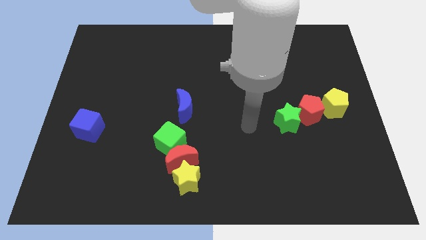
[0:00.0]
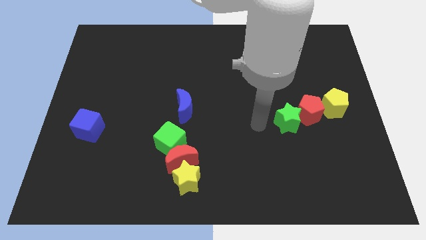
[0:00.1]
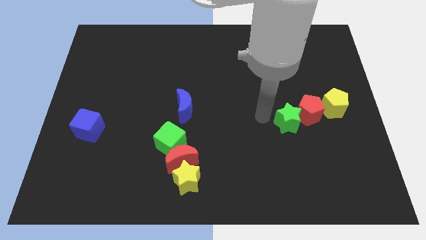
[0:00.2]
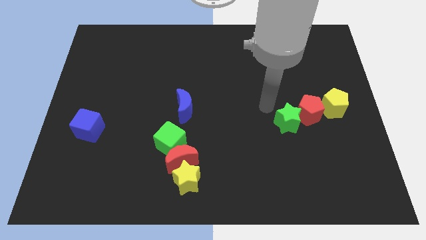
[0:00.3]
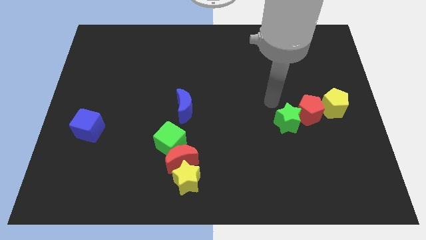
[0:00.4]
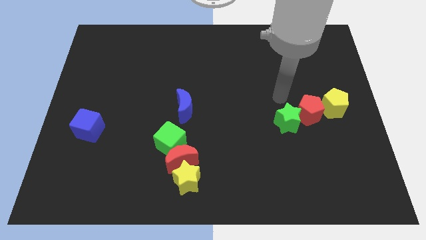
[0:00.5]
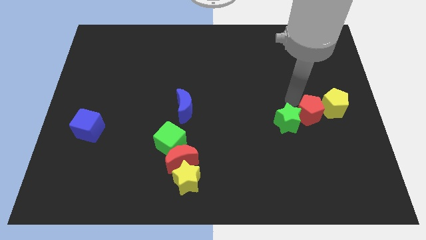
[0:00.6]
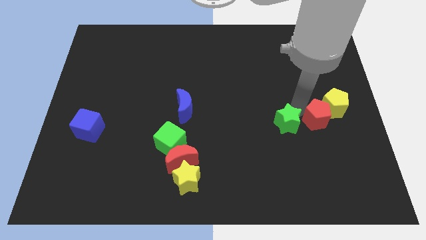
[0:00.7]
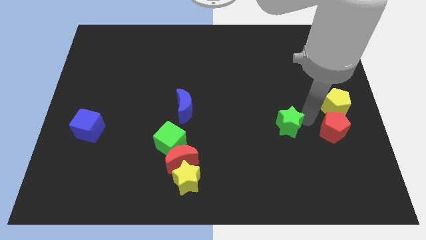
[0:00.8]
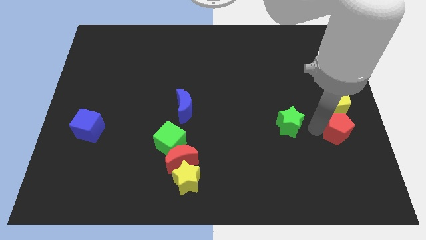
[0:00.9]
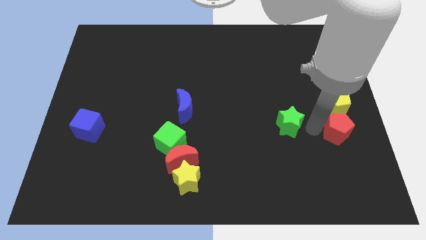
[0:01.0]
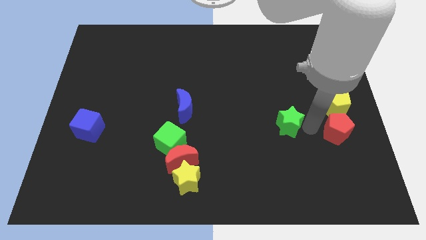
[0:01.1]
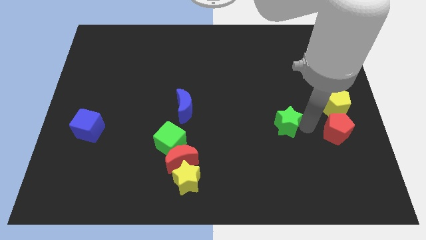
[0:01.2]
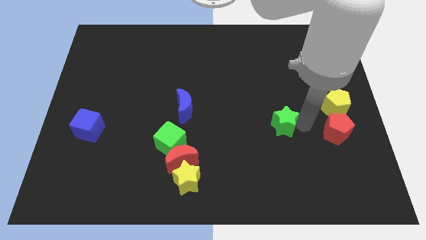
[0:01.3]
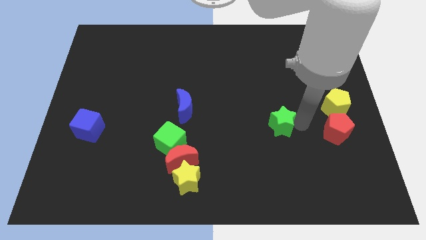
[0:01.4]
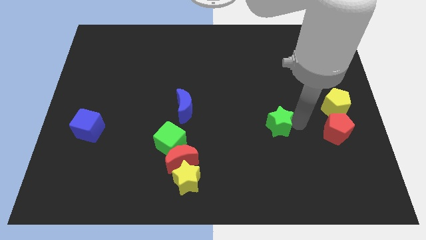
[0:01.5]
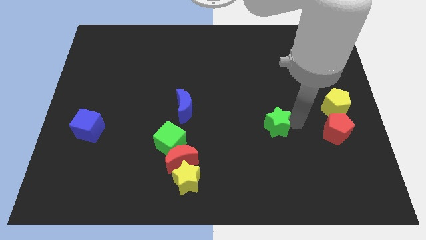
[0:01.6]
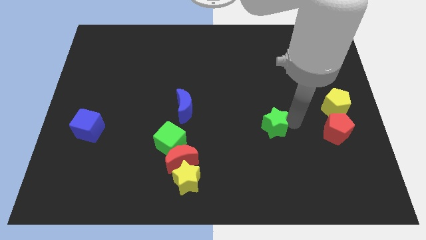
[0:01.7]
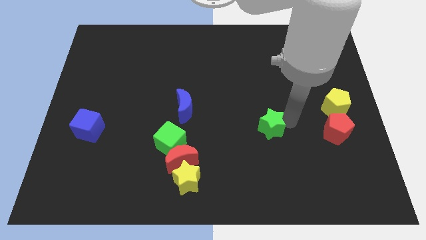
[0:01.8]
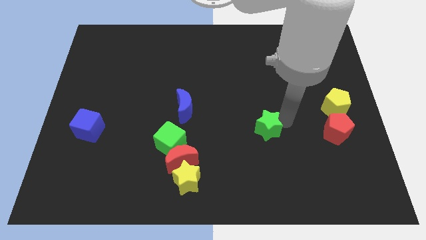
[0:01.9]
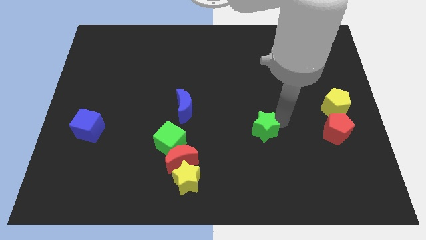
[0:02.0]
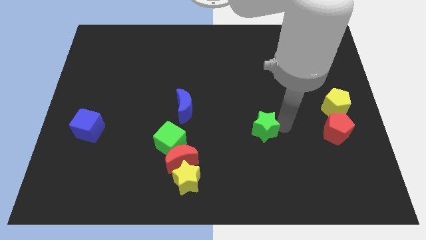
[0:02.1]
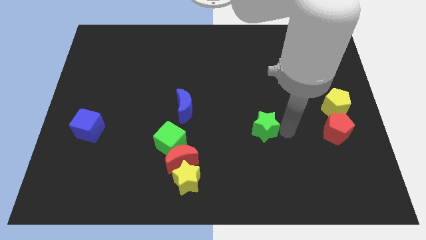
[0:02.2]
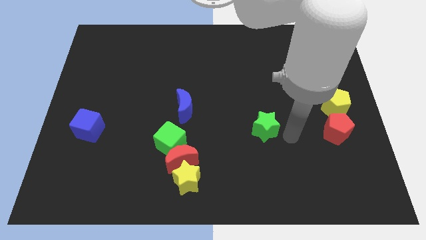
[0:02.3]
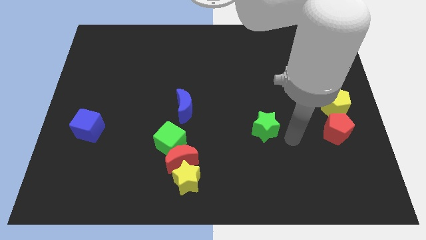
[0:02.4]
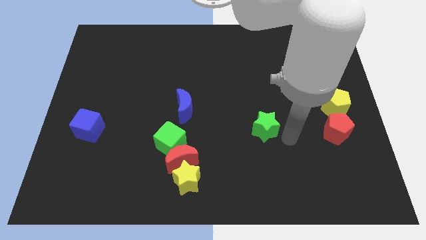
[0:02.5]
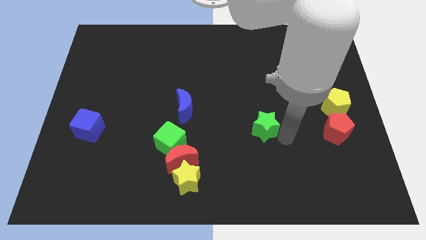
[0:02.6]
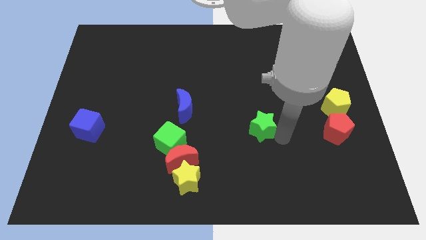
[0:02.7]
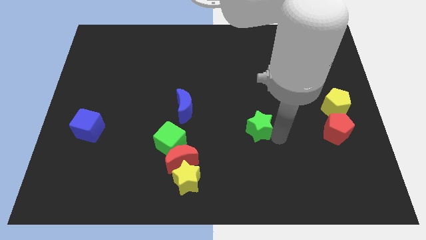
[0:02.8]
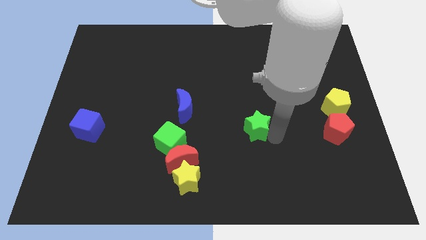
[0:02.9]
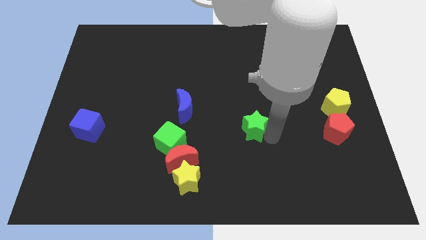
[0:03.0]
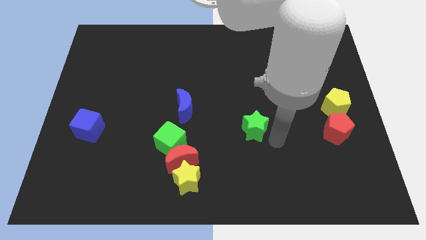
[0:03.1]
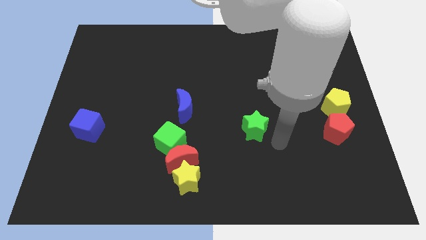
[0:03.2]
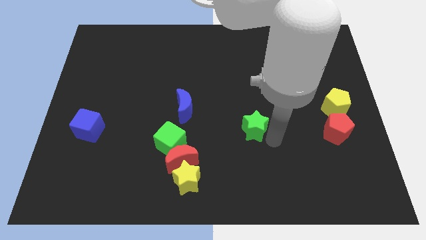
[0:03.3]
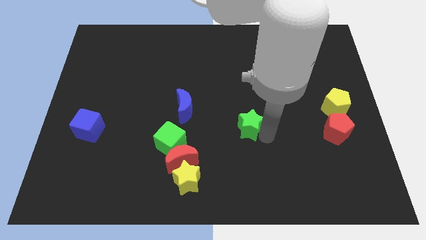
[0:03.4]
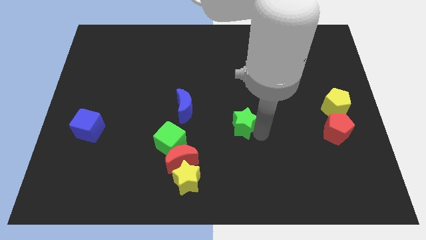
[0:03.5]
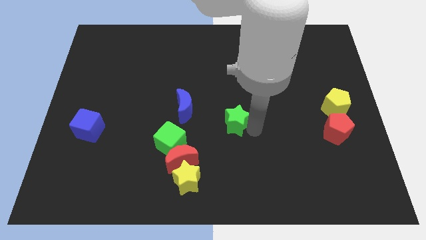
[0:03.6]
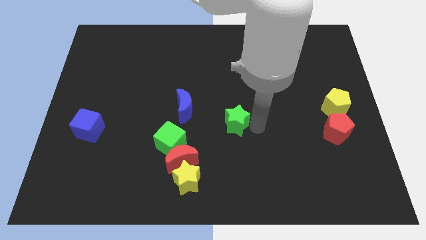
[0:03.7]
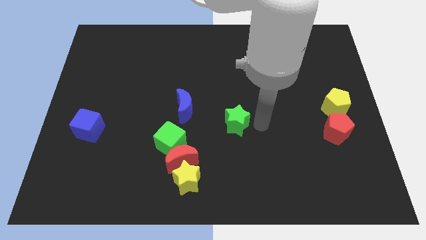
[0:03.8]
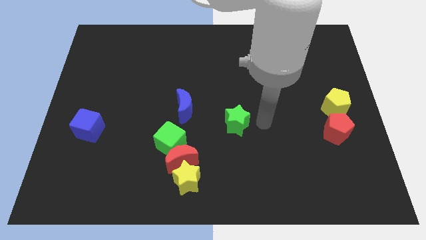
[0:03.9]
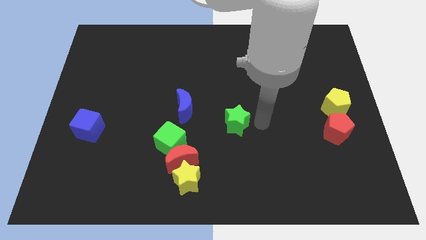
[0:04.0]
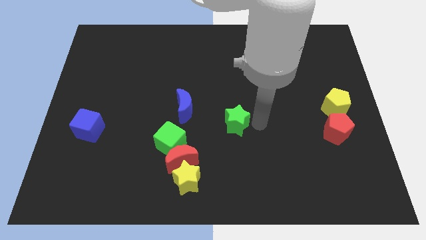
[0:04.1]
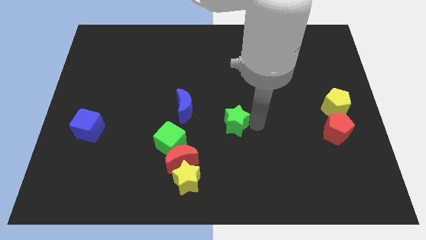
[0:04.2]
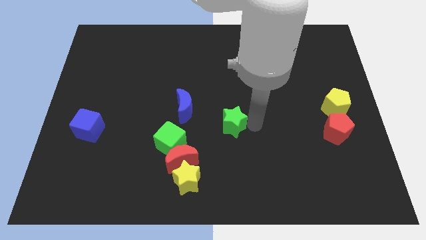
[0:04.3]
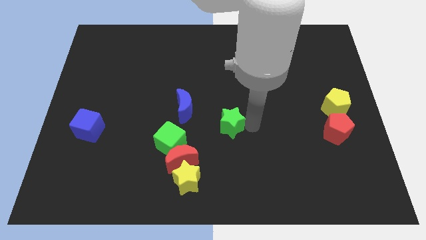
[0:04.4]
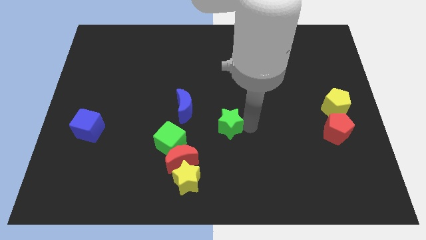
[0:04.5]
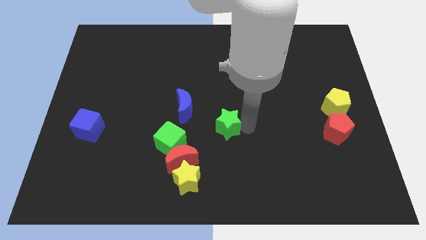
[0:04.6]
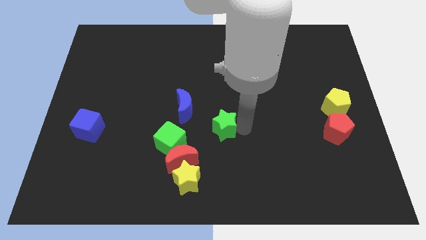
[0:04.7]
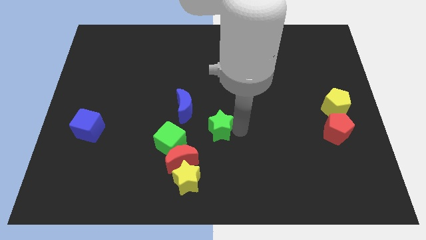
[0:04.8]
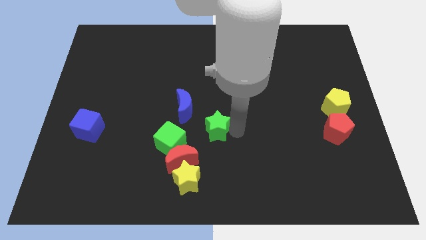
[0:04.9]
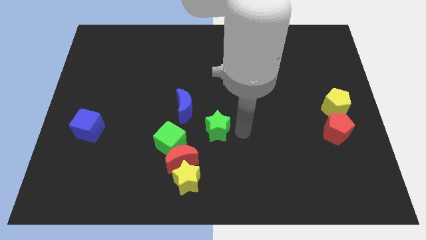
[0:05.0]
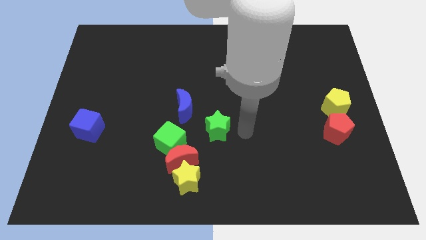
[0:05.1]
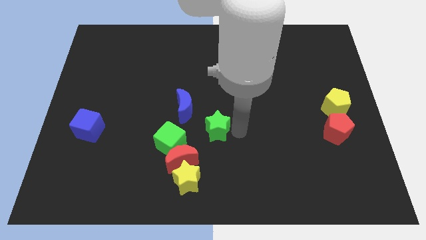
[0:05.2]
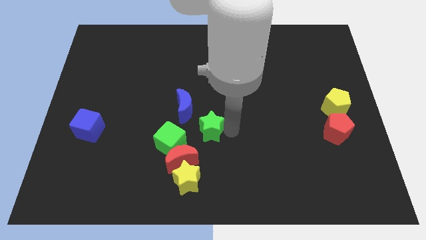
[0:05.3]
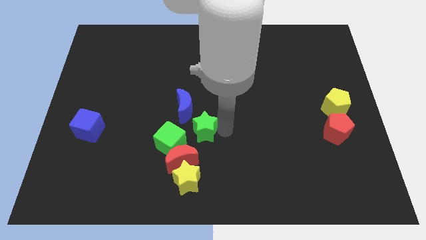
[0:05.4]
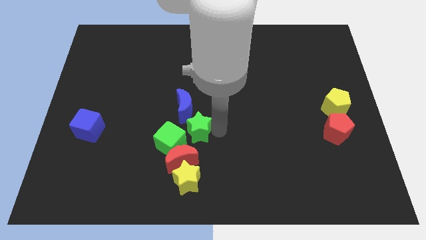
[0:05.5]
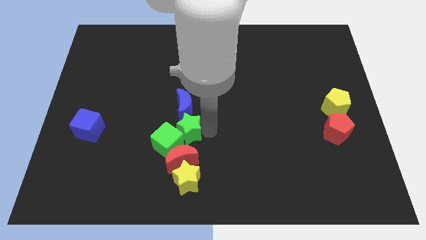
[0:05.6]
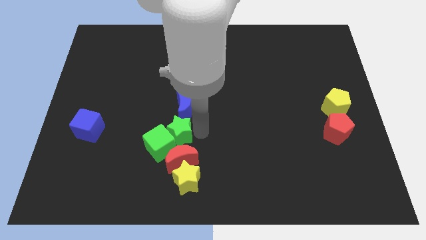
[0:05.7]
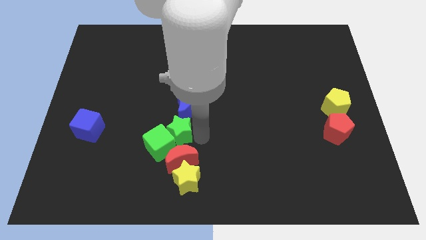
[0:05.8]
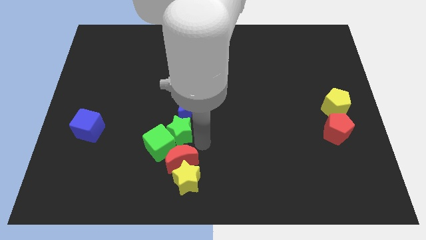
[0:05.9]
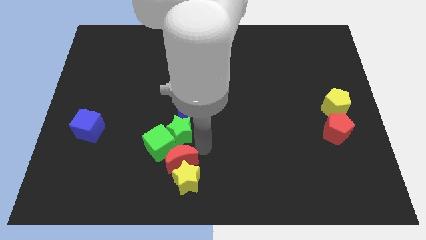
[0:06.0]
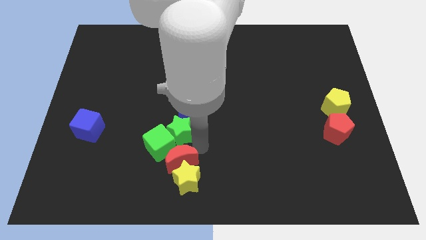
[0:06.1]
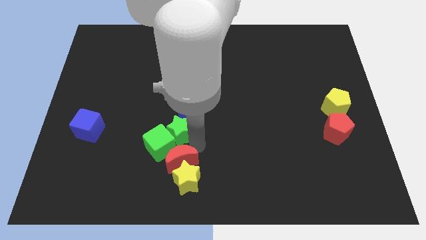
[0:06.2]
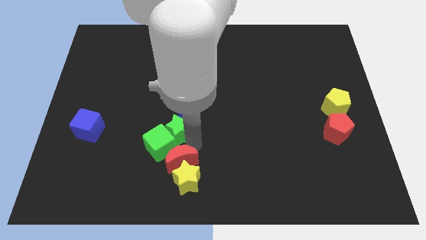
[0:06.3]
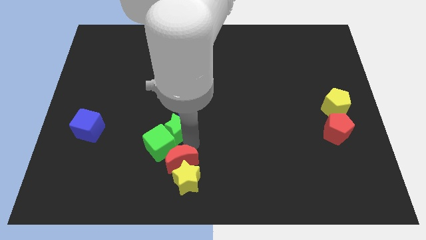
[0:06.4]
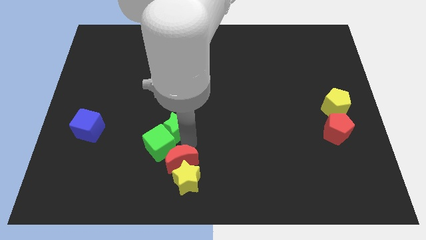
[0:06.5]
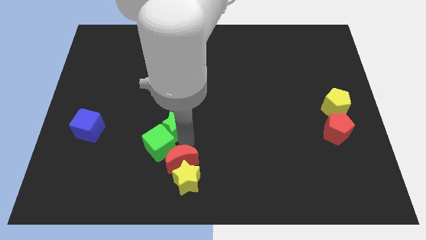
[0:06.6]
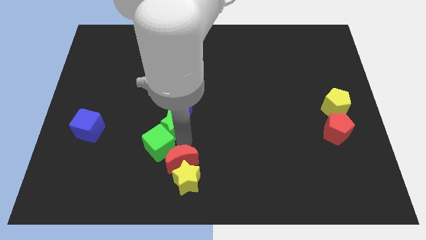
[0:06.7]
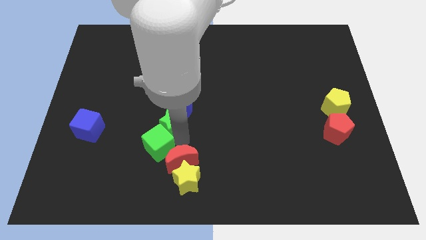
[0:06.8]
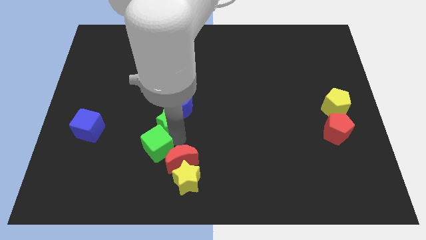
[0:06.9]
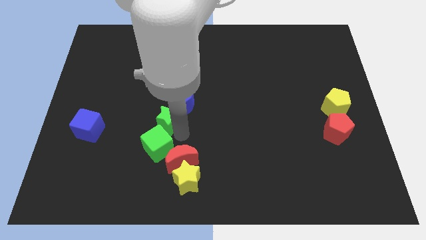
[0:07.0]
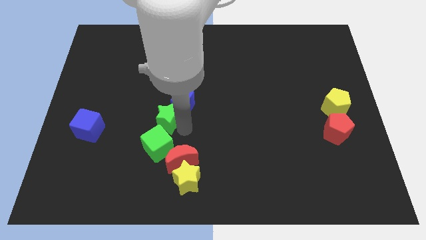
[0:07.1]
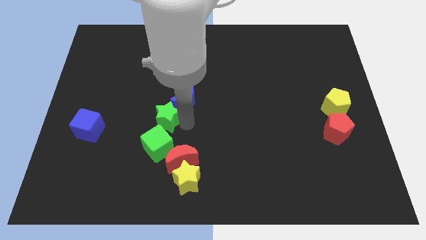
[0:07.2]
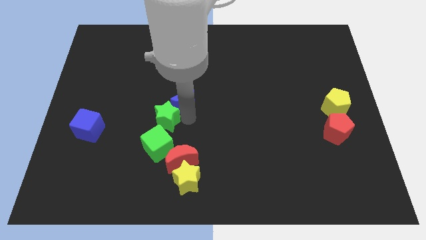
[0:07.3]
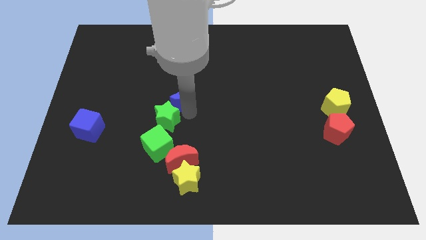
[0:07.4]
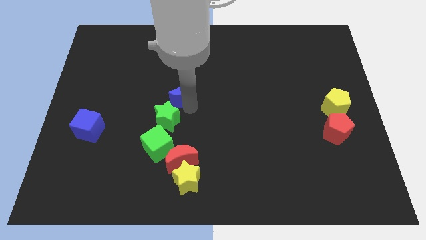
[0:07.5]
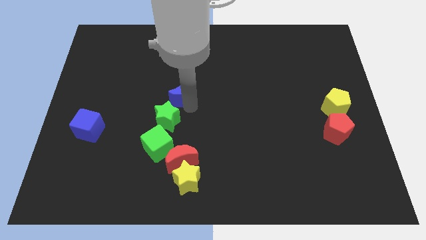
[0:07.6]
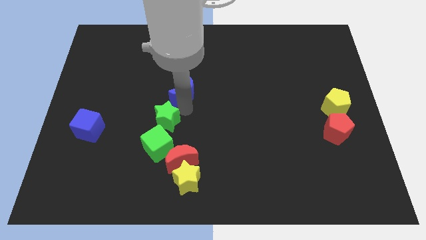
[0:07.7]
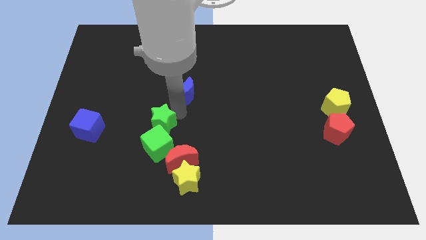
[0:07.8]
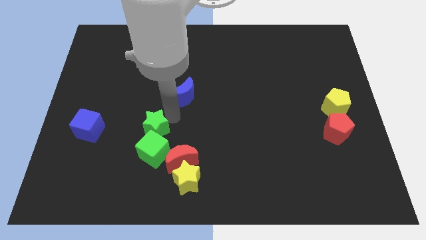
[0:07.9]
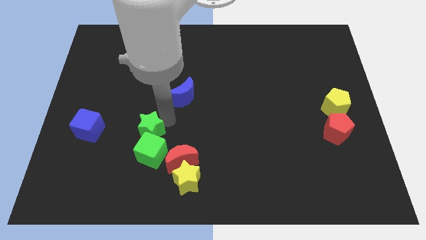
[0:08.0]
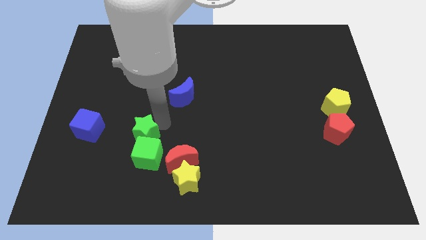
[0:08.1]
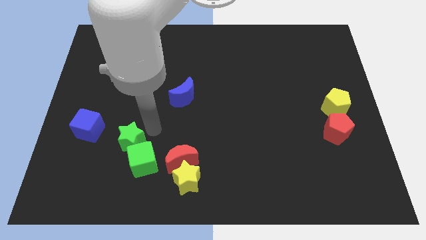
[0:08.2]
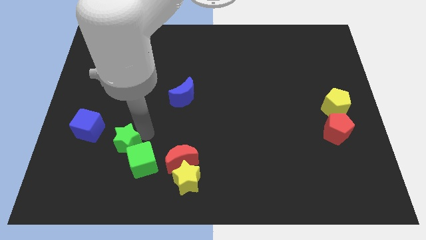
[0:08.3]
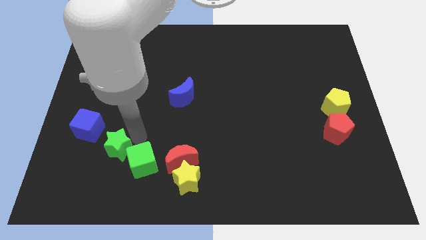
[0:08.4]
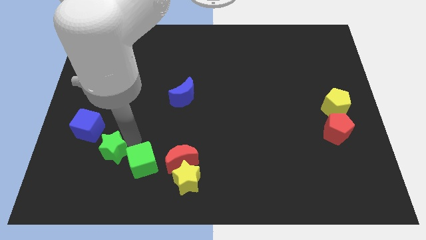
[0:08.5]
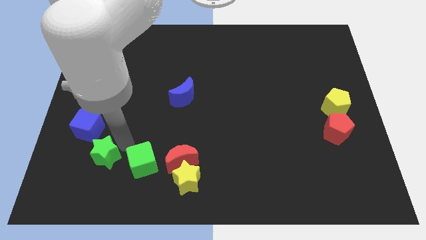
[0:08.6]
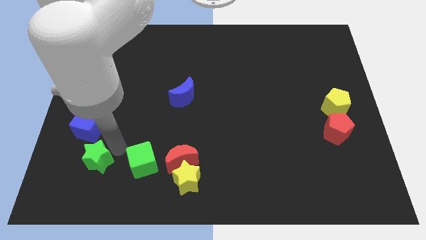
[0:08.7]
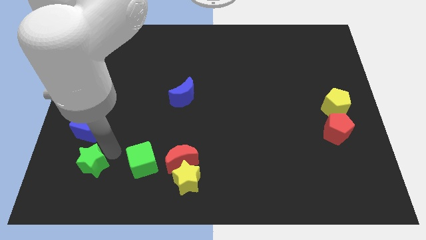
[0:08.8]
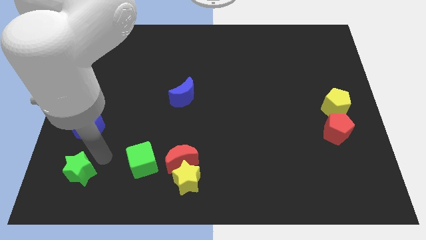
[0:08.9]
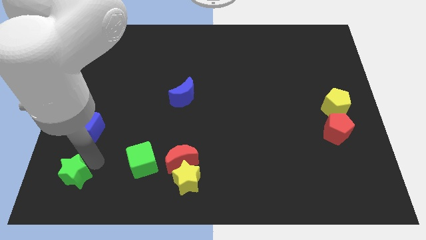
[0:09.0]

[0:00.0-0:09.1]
push the green star to the bottom left
